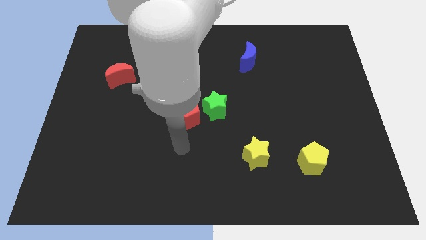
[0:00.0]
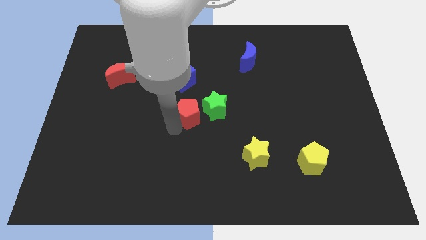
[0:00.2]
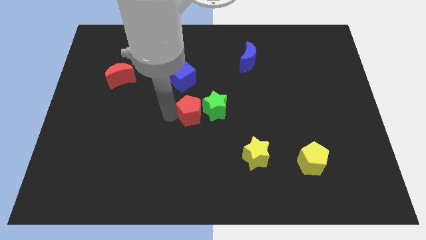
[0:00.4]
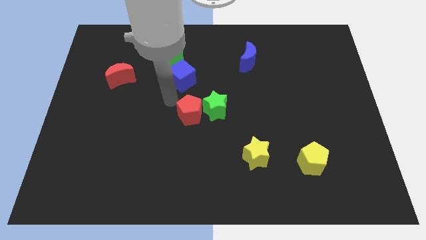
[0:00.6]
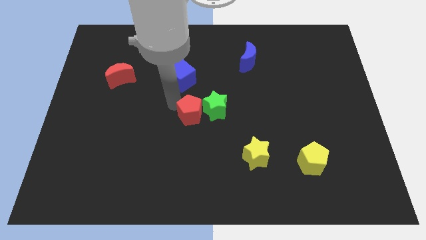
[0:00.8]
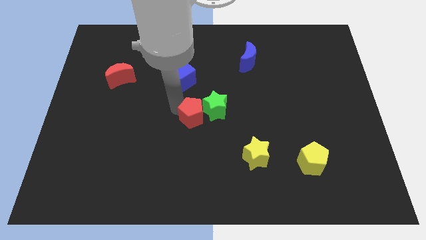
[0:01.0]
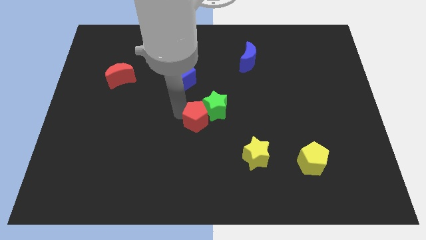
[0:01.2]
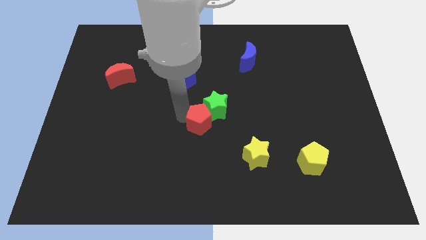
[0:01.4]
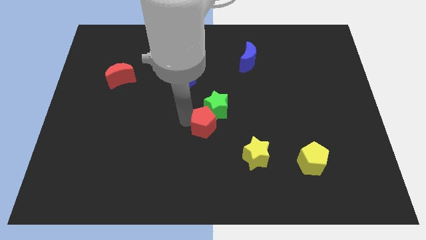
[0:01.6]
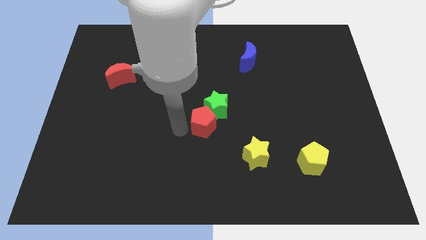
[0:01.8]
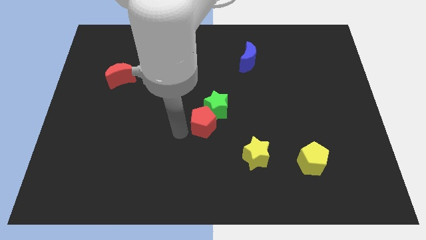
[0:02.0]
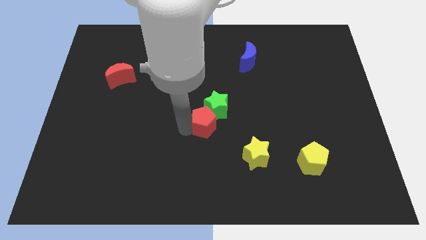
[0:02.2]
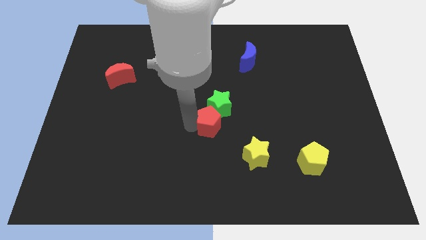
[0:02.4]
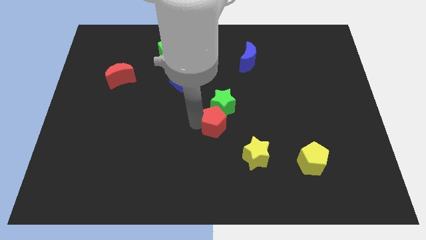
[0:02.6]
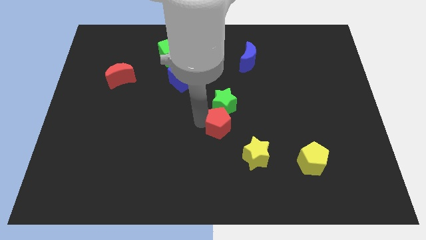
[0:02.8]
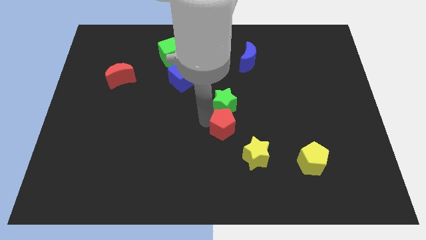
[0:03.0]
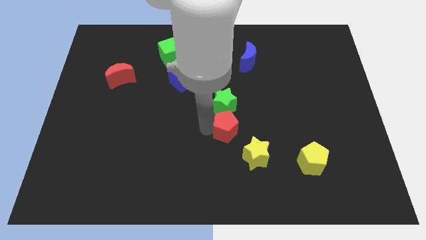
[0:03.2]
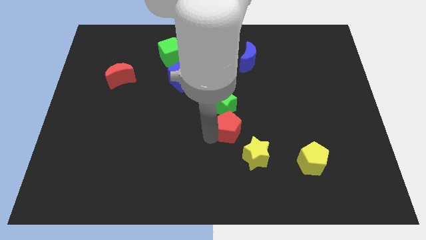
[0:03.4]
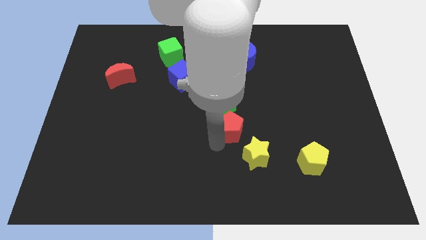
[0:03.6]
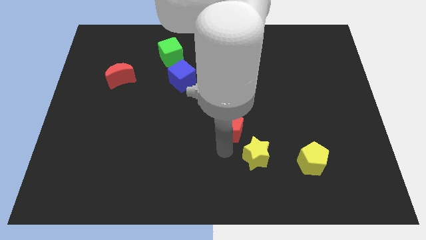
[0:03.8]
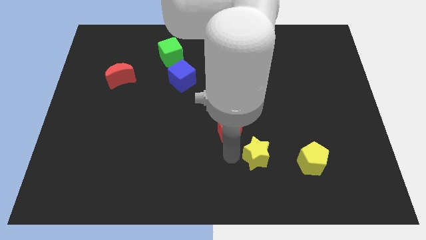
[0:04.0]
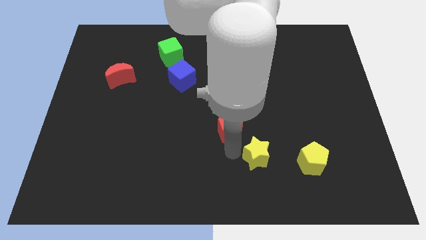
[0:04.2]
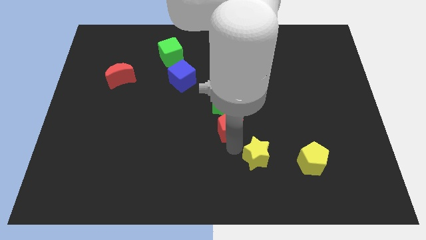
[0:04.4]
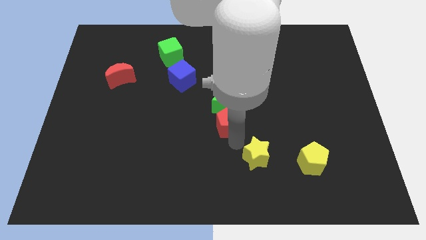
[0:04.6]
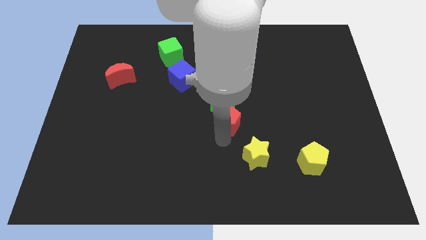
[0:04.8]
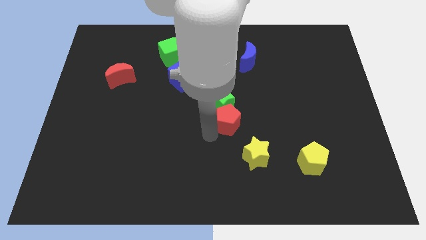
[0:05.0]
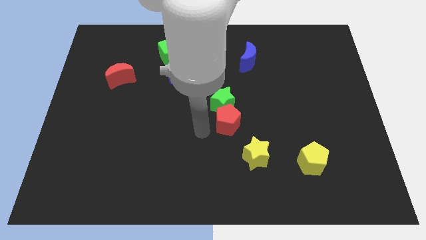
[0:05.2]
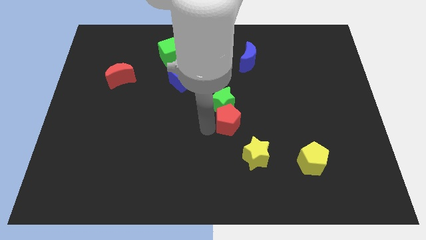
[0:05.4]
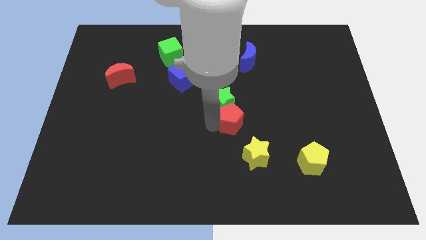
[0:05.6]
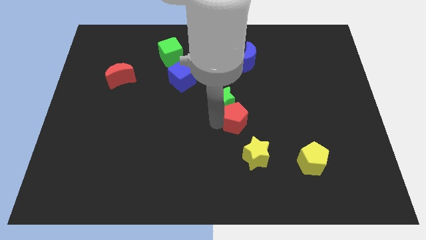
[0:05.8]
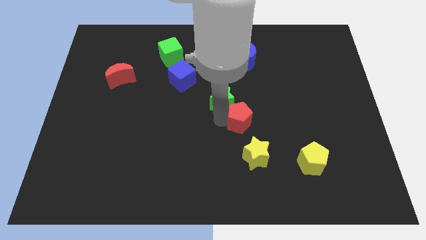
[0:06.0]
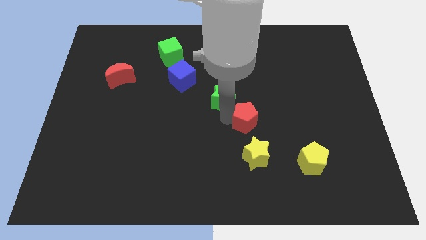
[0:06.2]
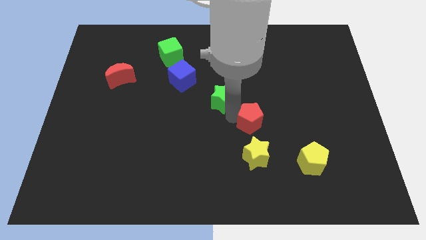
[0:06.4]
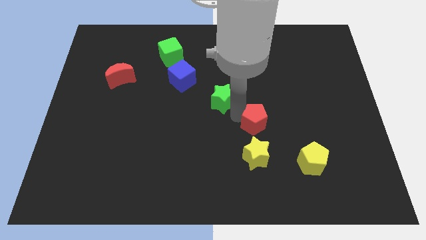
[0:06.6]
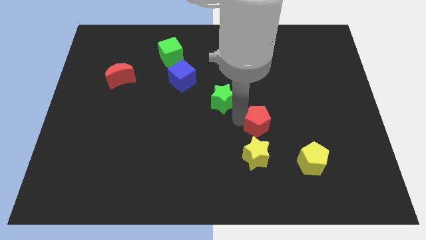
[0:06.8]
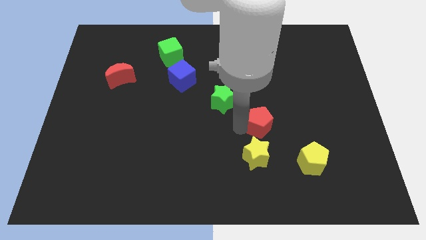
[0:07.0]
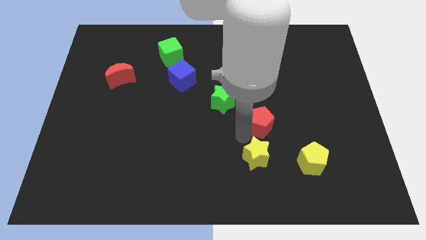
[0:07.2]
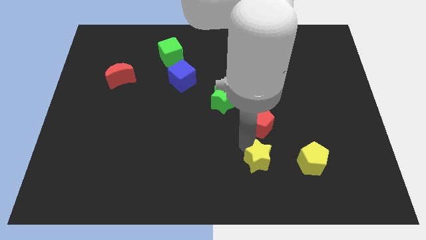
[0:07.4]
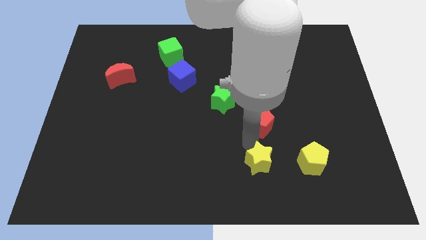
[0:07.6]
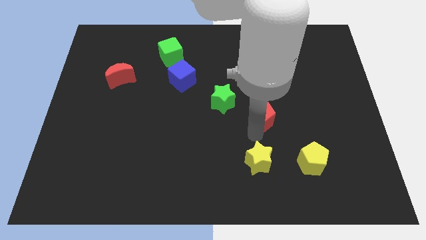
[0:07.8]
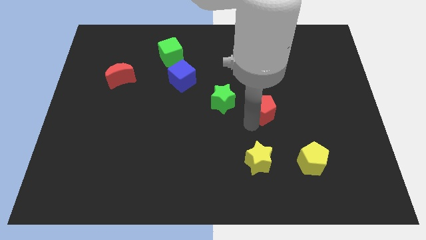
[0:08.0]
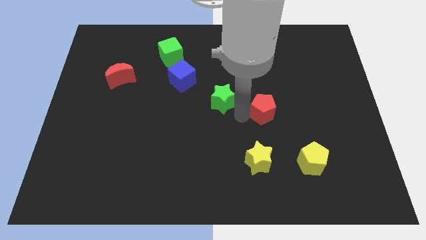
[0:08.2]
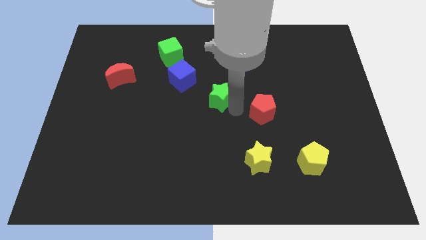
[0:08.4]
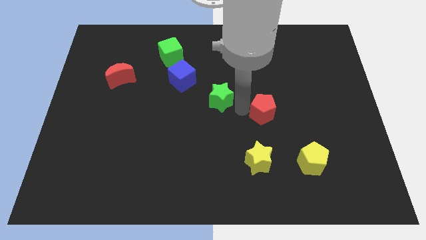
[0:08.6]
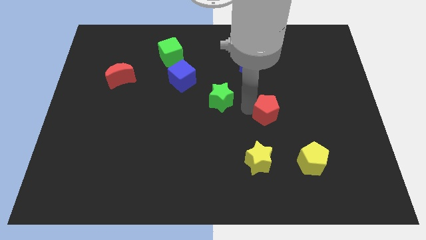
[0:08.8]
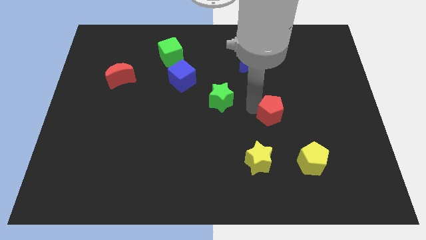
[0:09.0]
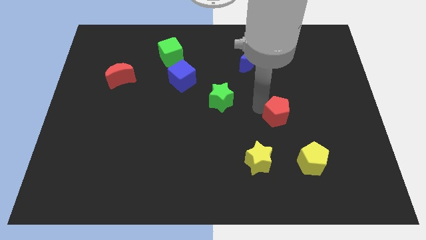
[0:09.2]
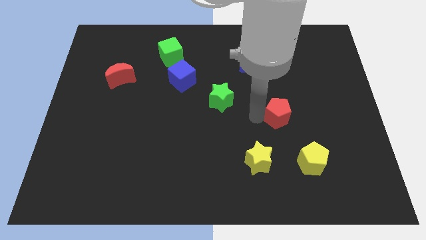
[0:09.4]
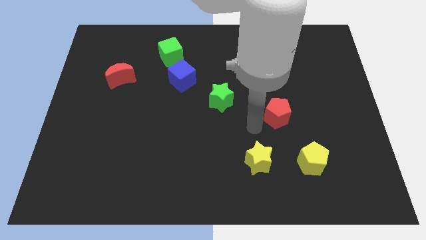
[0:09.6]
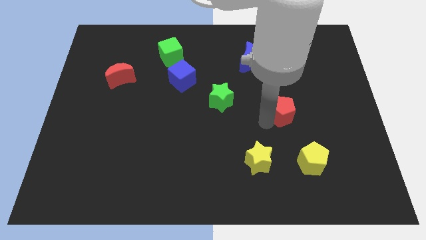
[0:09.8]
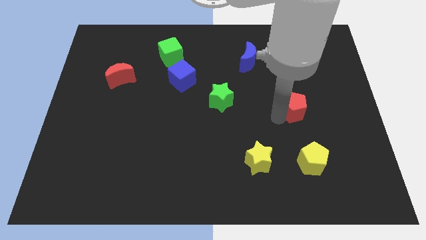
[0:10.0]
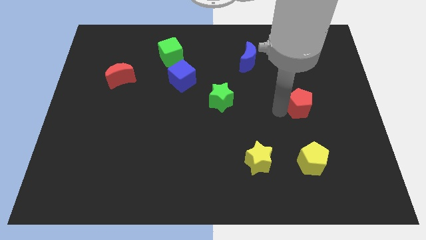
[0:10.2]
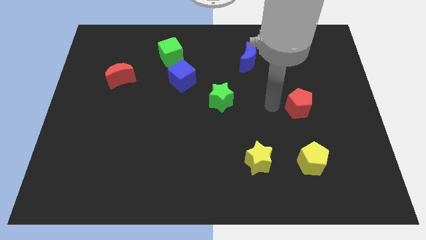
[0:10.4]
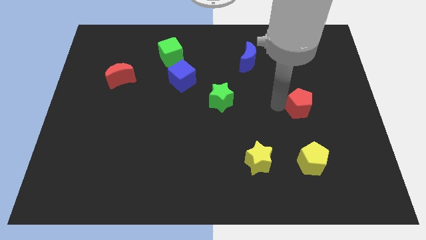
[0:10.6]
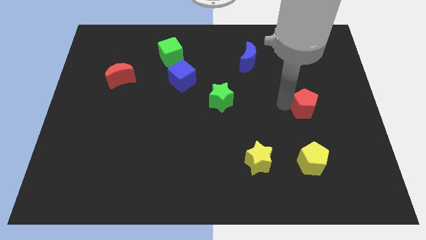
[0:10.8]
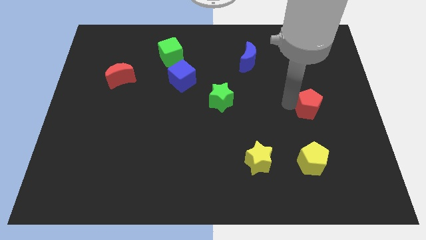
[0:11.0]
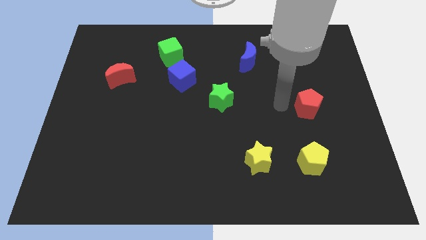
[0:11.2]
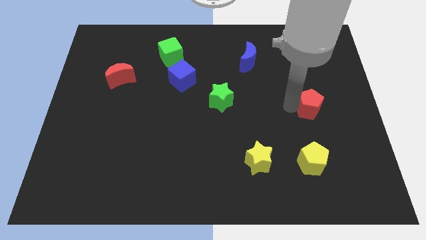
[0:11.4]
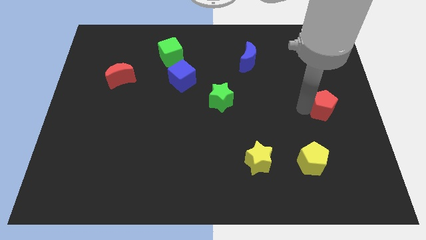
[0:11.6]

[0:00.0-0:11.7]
move the red pentagon to the center right
